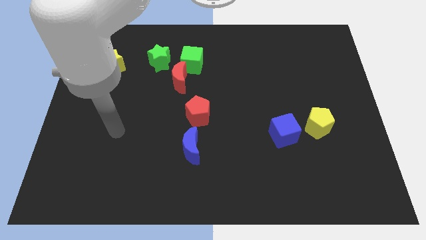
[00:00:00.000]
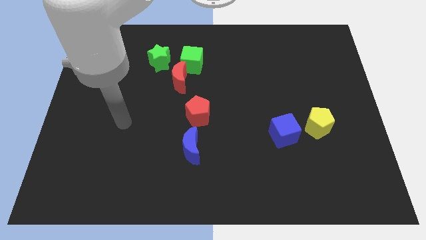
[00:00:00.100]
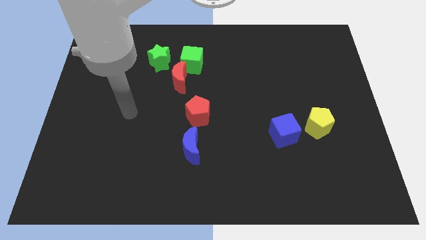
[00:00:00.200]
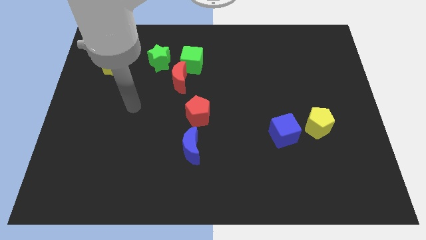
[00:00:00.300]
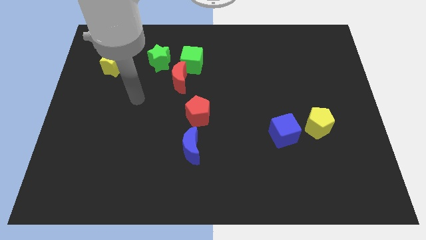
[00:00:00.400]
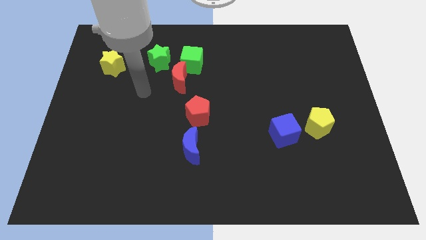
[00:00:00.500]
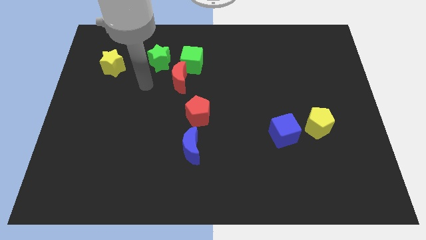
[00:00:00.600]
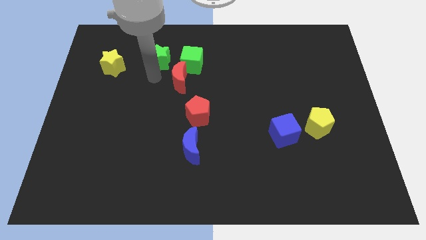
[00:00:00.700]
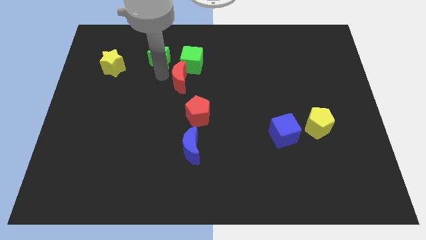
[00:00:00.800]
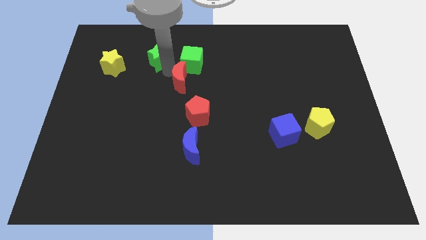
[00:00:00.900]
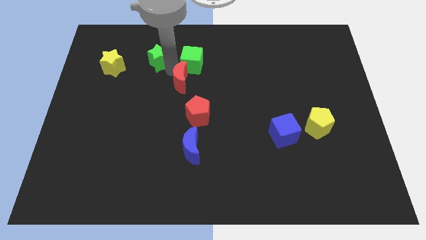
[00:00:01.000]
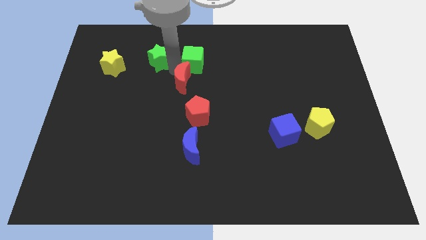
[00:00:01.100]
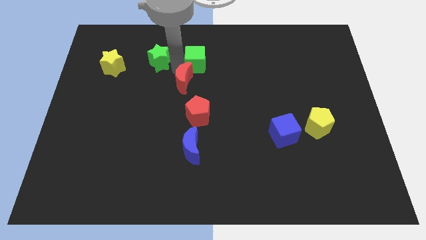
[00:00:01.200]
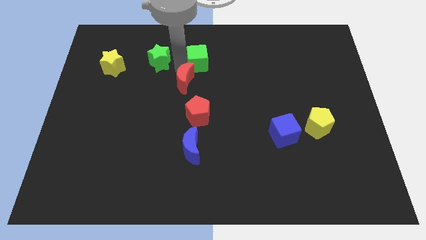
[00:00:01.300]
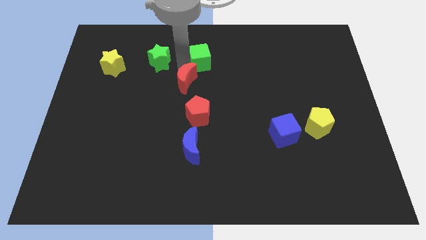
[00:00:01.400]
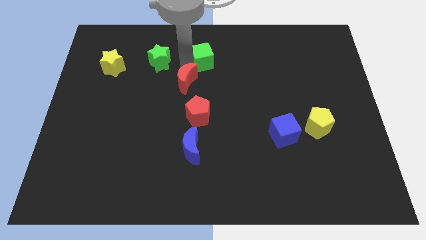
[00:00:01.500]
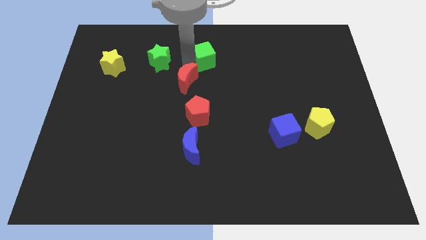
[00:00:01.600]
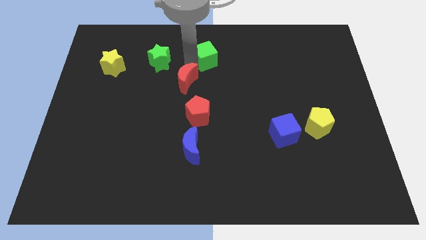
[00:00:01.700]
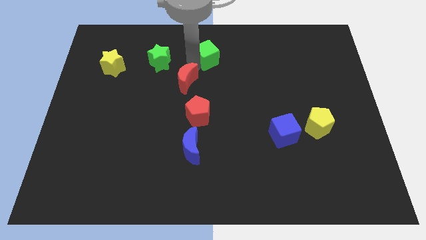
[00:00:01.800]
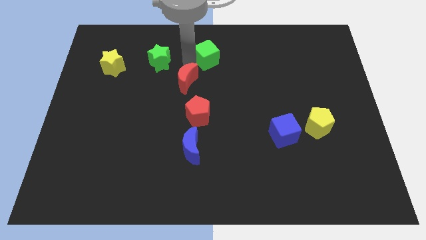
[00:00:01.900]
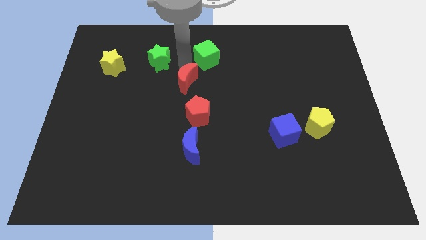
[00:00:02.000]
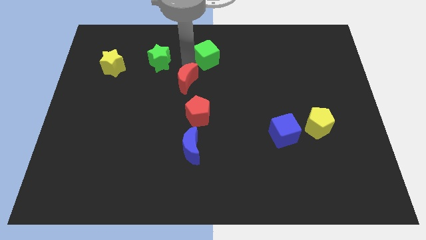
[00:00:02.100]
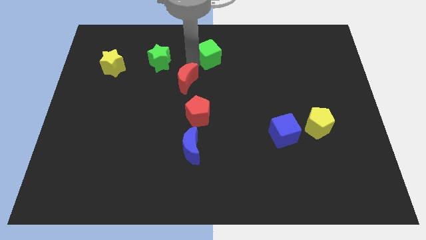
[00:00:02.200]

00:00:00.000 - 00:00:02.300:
separate the green cube from the red moon and green star

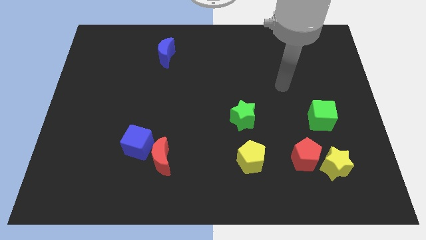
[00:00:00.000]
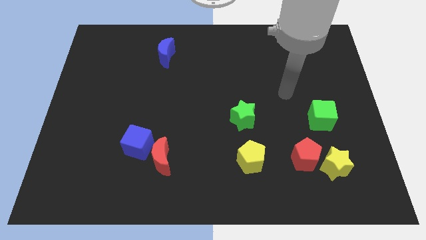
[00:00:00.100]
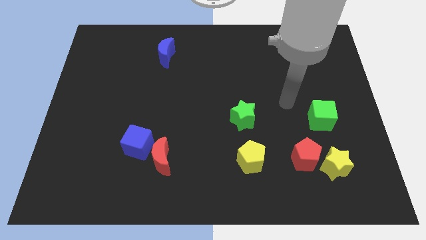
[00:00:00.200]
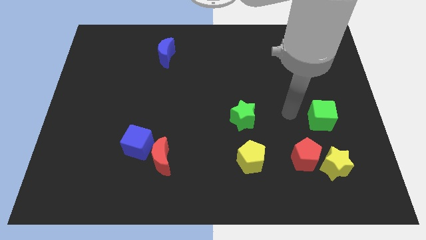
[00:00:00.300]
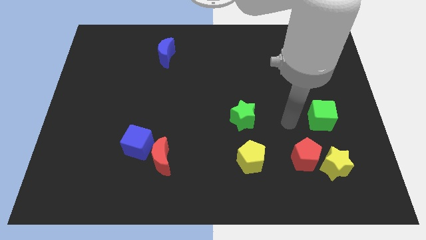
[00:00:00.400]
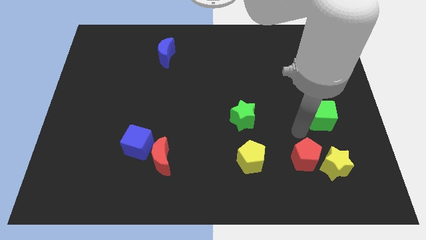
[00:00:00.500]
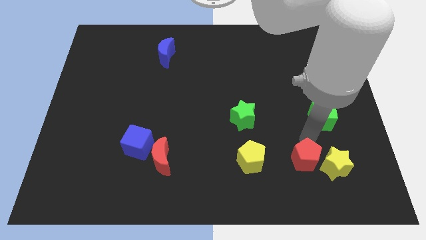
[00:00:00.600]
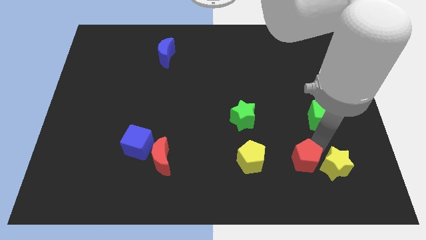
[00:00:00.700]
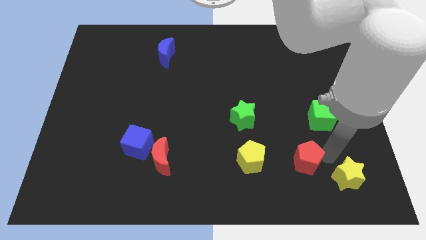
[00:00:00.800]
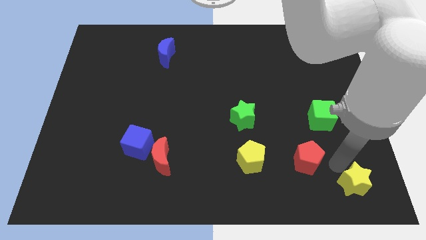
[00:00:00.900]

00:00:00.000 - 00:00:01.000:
pull the red pentagon apart from the yellow star

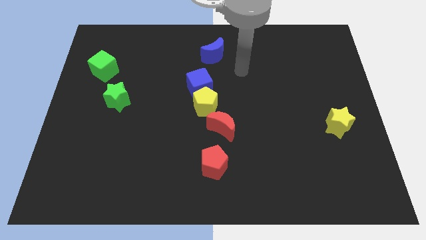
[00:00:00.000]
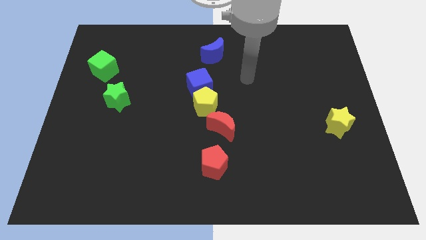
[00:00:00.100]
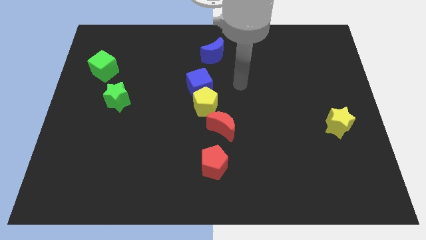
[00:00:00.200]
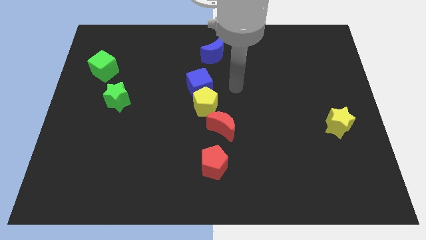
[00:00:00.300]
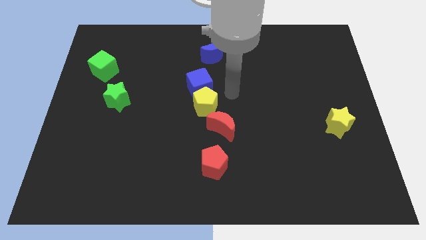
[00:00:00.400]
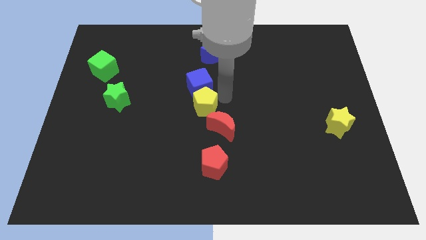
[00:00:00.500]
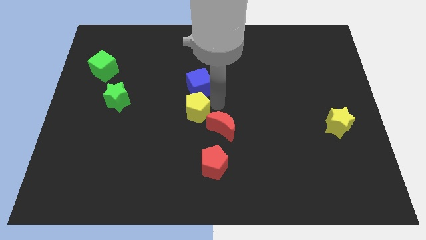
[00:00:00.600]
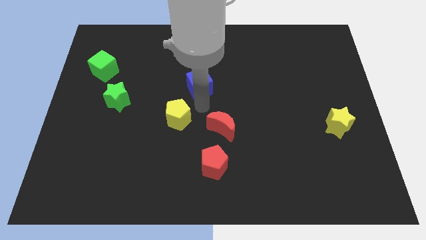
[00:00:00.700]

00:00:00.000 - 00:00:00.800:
pull the blue cube apart from the yellow pentagon

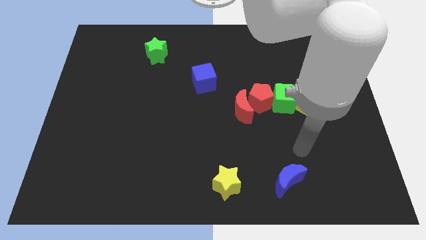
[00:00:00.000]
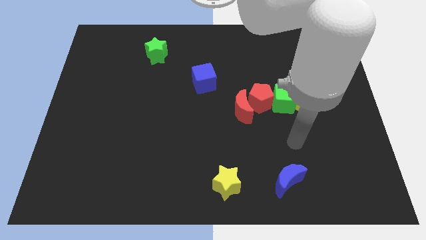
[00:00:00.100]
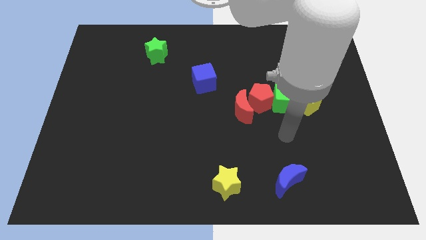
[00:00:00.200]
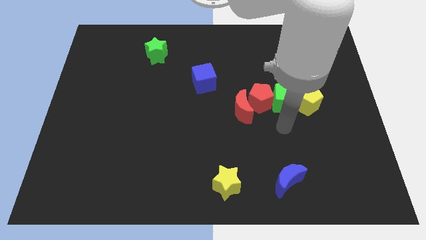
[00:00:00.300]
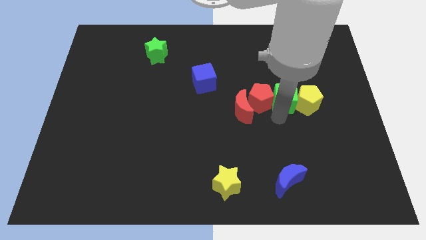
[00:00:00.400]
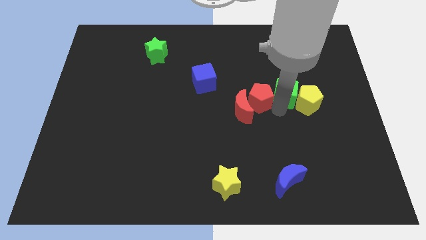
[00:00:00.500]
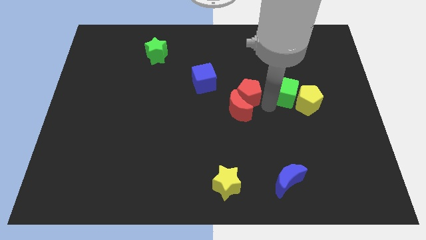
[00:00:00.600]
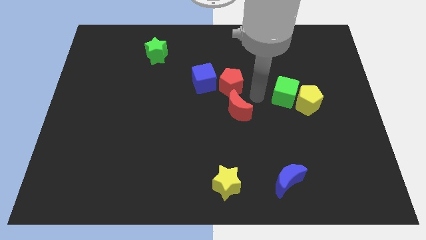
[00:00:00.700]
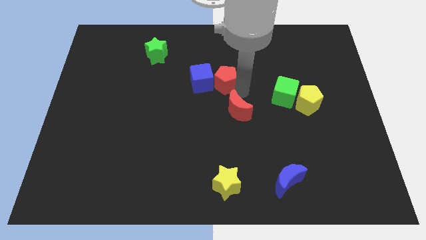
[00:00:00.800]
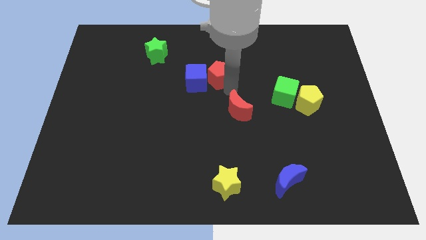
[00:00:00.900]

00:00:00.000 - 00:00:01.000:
separate the red moon from the red pentagon

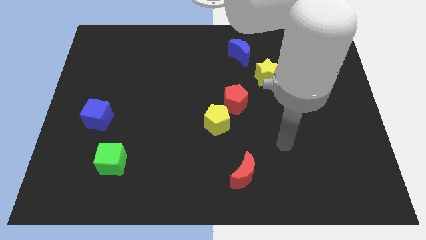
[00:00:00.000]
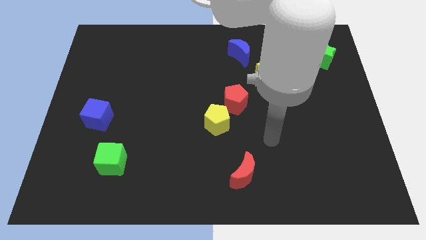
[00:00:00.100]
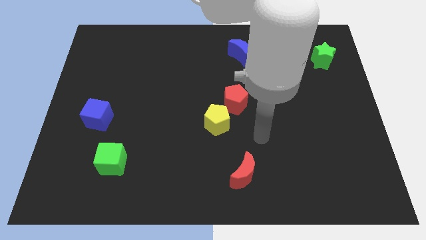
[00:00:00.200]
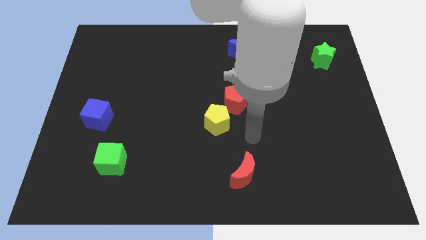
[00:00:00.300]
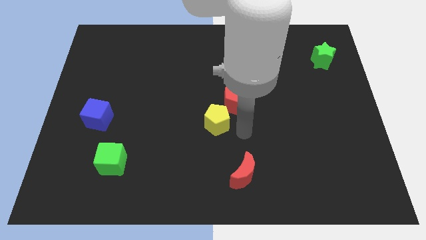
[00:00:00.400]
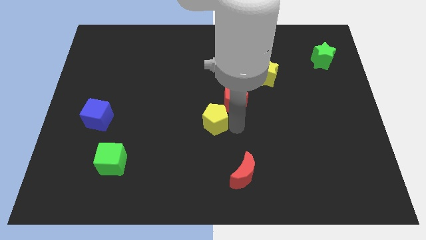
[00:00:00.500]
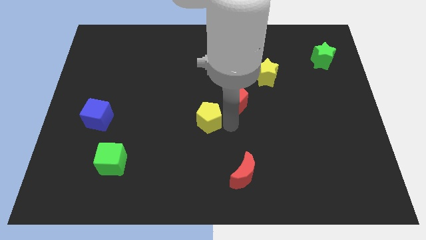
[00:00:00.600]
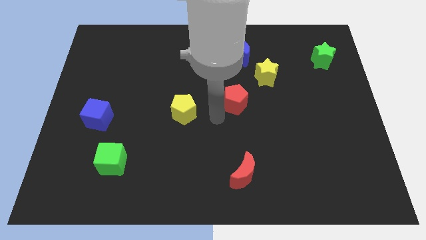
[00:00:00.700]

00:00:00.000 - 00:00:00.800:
move the red pentagon away from the yellow pentagon

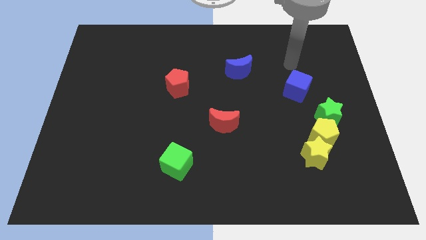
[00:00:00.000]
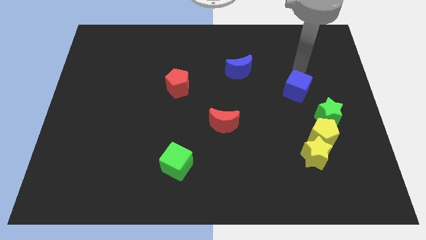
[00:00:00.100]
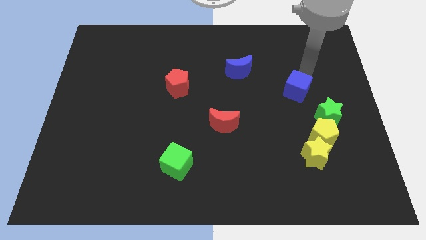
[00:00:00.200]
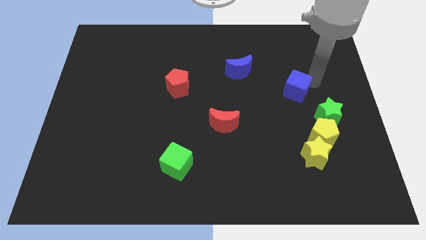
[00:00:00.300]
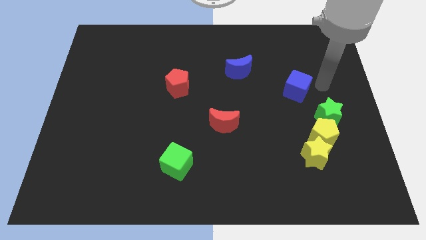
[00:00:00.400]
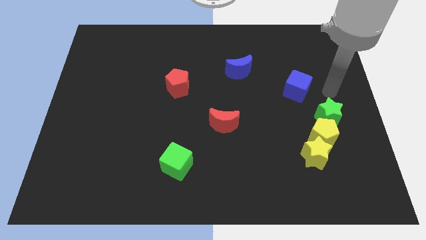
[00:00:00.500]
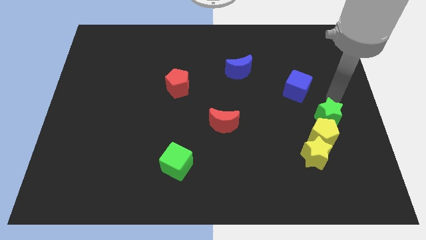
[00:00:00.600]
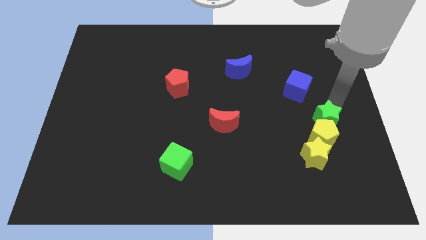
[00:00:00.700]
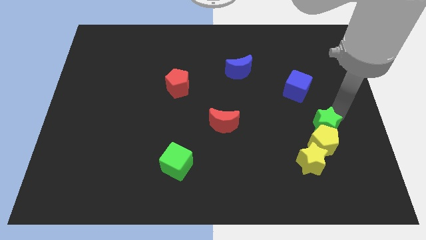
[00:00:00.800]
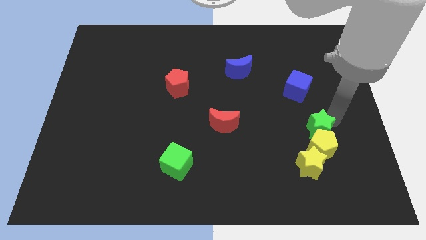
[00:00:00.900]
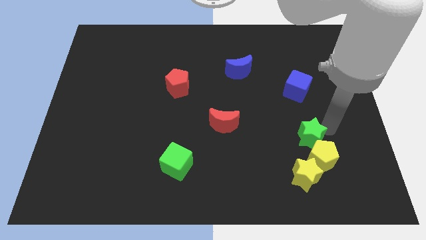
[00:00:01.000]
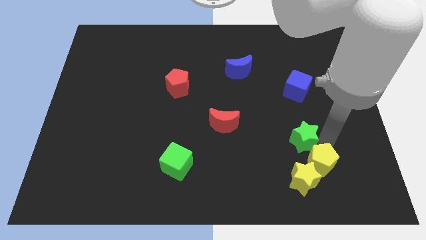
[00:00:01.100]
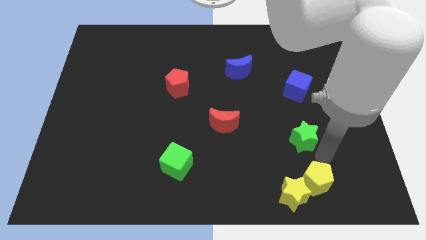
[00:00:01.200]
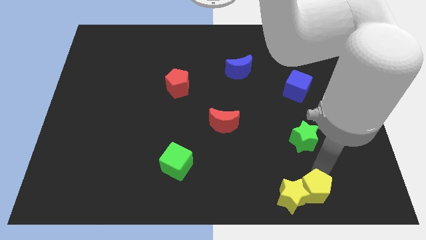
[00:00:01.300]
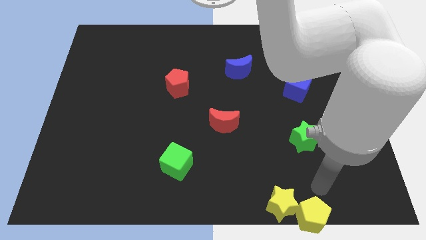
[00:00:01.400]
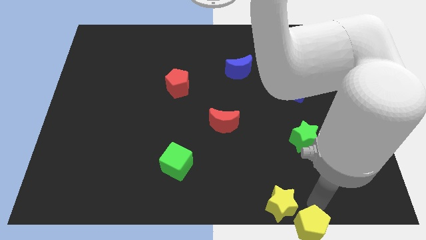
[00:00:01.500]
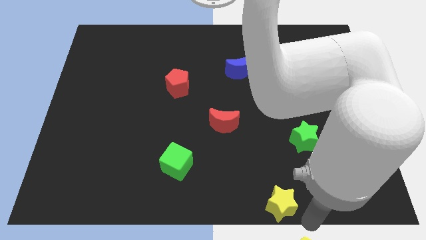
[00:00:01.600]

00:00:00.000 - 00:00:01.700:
pull the yellow star apart from the yellow pentagon

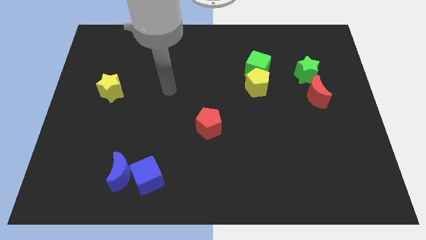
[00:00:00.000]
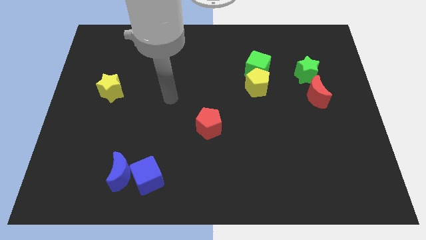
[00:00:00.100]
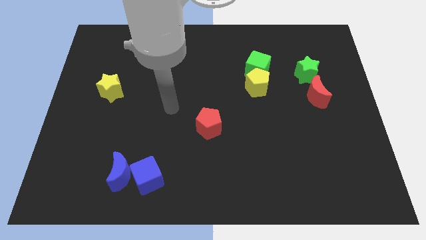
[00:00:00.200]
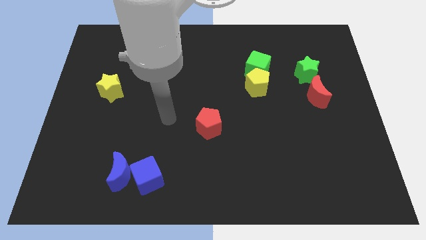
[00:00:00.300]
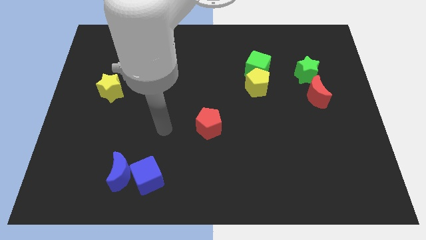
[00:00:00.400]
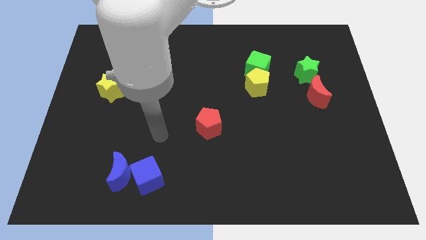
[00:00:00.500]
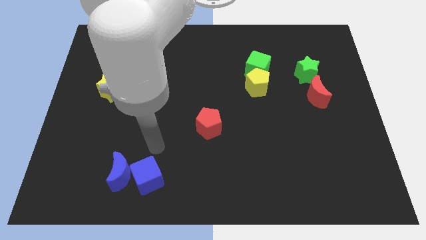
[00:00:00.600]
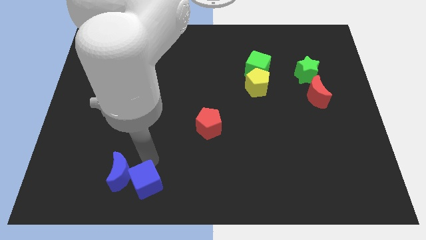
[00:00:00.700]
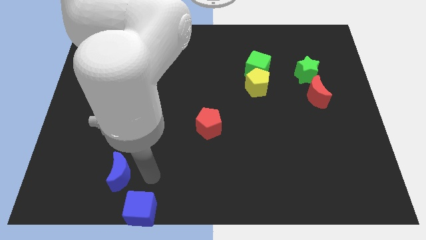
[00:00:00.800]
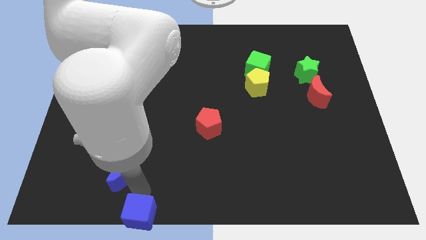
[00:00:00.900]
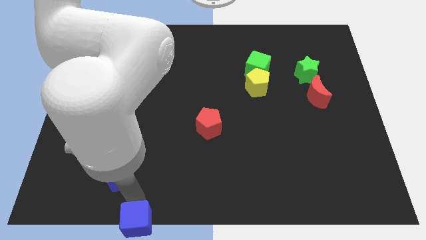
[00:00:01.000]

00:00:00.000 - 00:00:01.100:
move the blue moon away from the blue cube

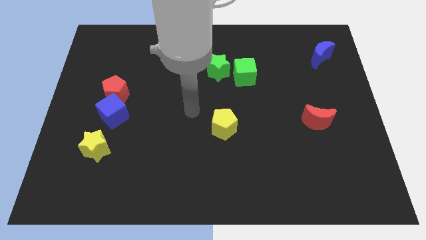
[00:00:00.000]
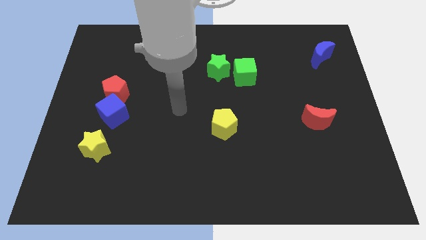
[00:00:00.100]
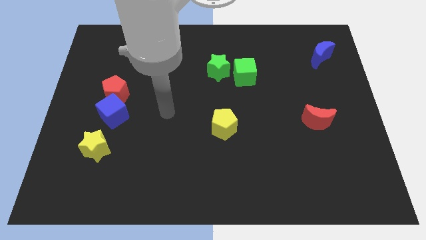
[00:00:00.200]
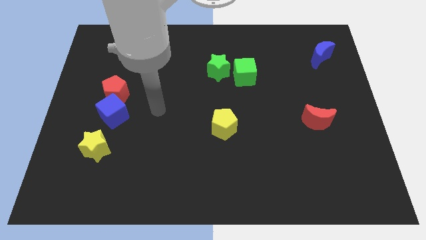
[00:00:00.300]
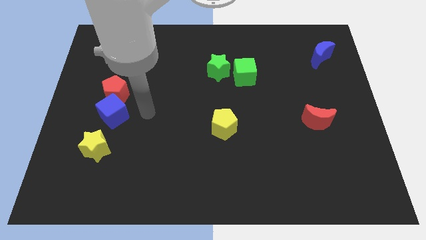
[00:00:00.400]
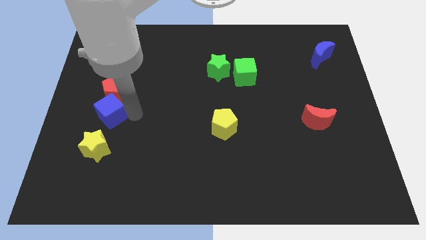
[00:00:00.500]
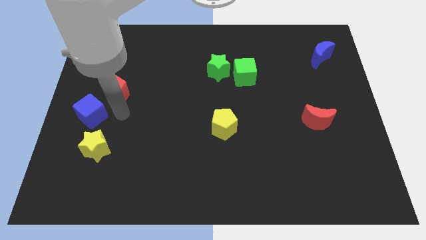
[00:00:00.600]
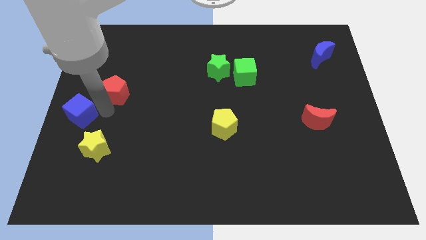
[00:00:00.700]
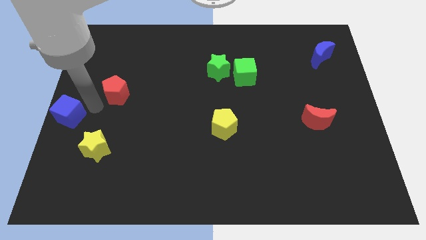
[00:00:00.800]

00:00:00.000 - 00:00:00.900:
separate the red pentagon from the blue cube
